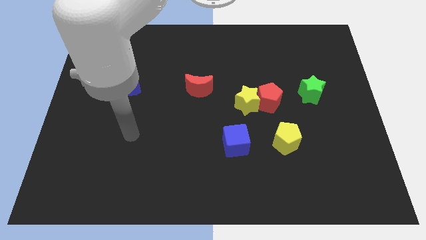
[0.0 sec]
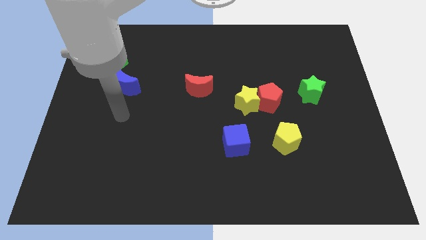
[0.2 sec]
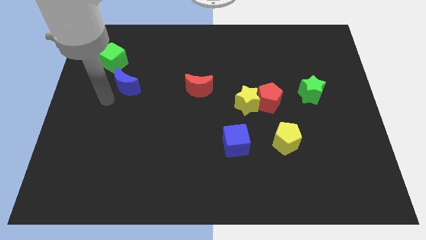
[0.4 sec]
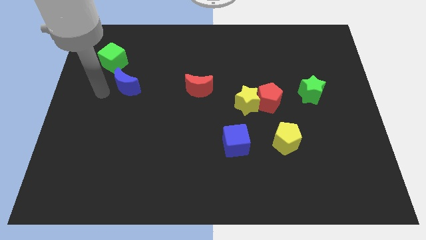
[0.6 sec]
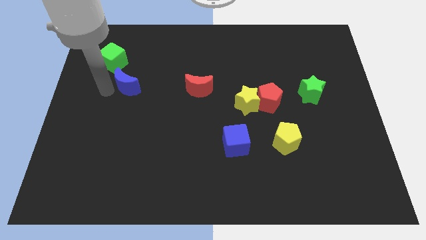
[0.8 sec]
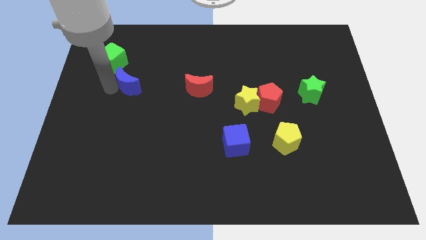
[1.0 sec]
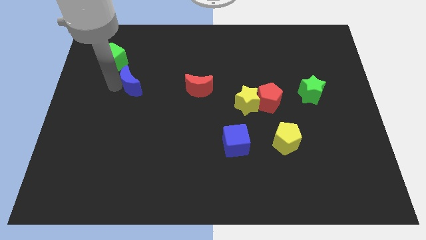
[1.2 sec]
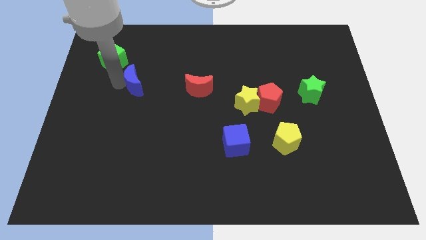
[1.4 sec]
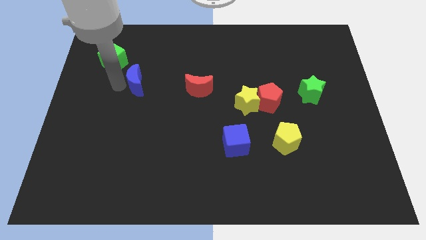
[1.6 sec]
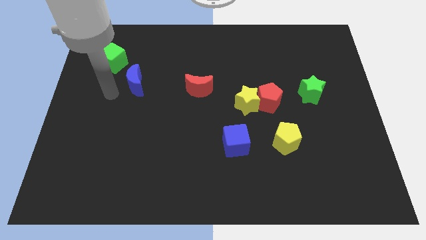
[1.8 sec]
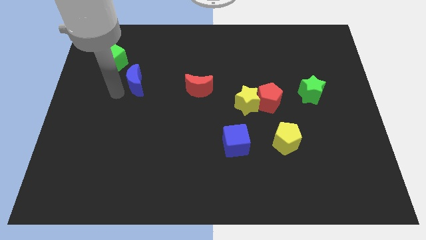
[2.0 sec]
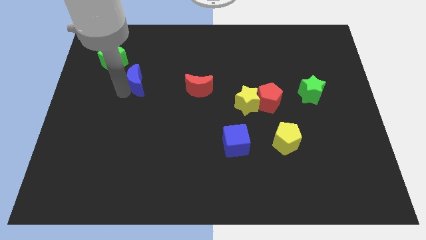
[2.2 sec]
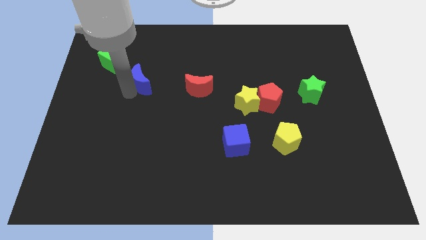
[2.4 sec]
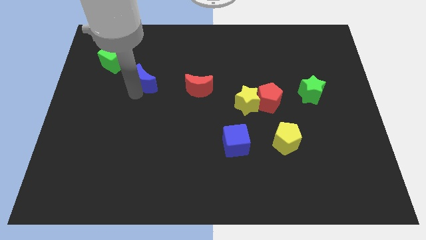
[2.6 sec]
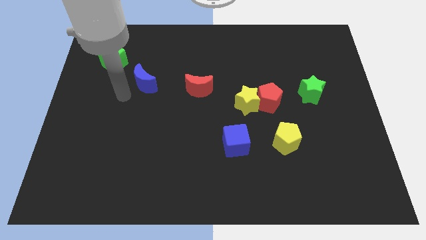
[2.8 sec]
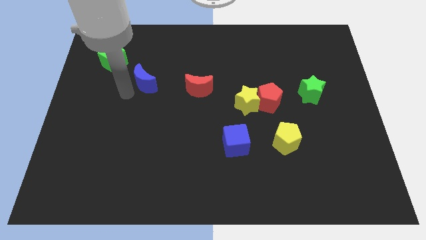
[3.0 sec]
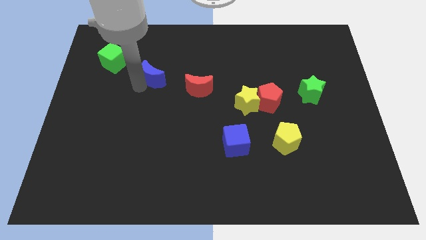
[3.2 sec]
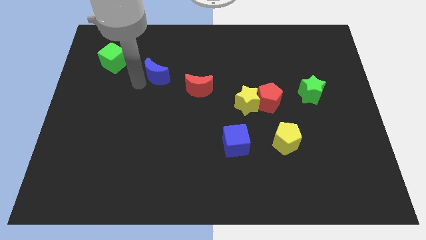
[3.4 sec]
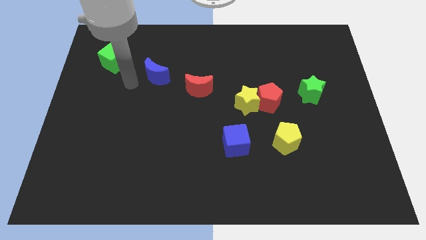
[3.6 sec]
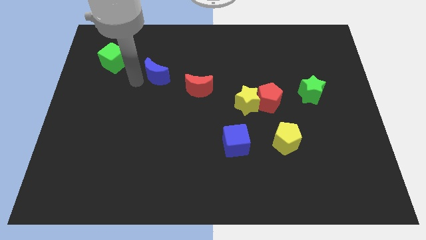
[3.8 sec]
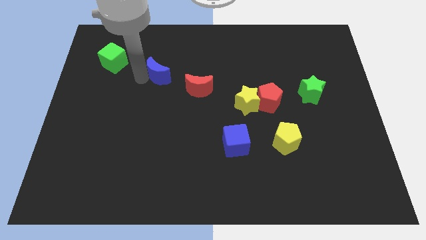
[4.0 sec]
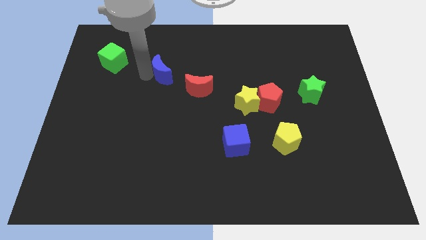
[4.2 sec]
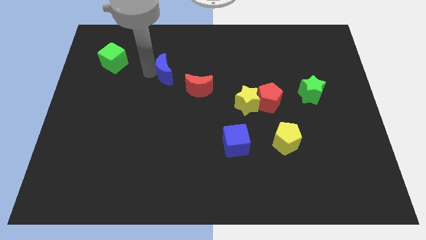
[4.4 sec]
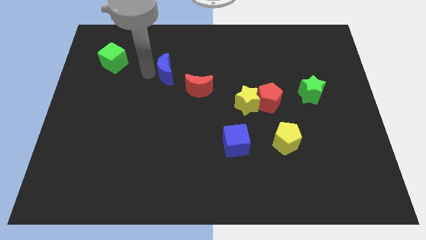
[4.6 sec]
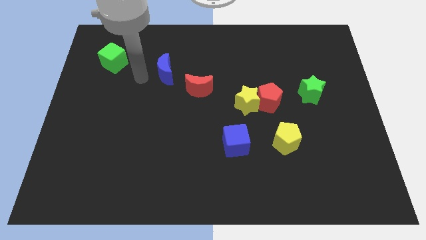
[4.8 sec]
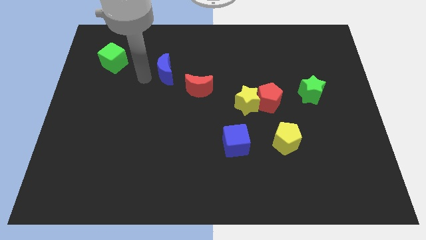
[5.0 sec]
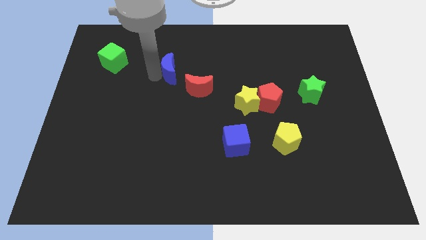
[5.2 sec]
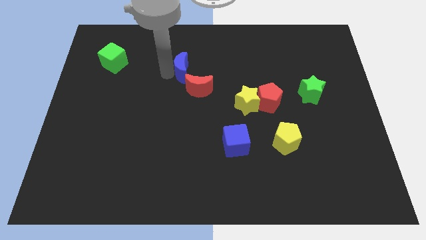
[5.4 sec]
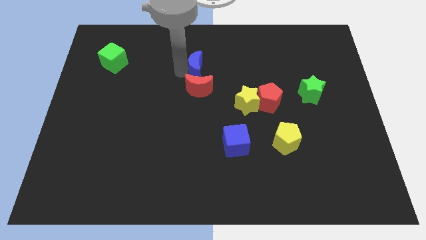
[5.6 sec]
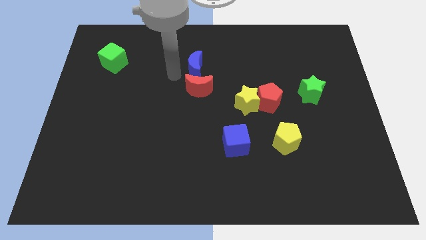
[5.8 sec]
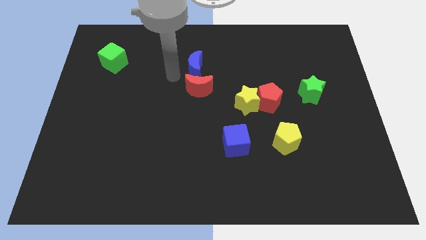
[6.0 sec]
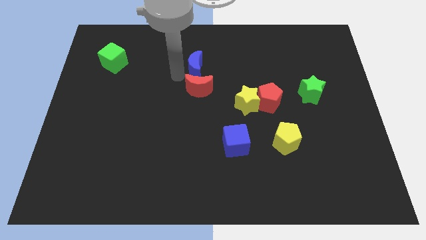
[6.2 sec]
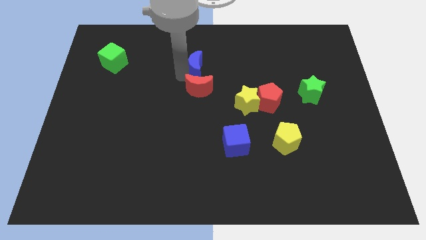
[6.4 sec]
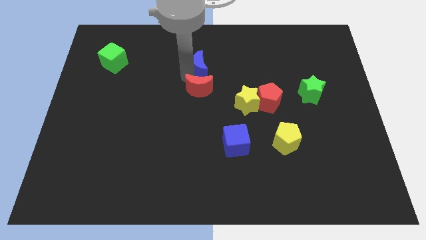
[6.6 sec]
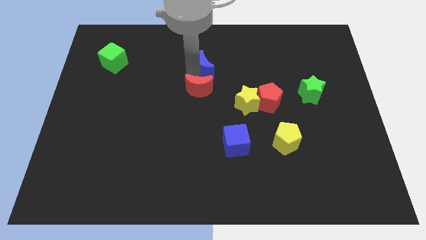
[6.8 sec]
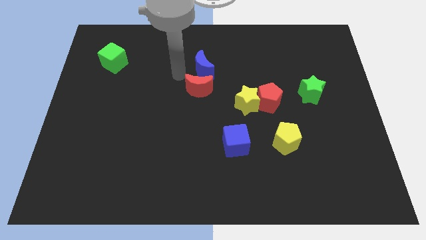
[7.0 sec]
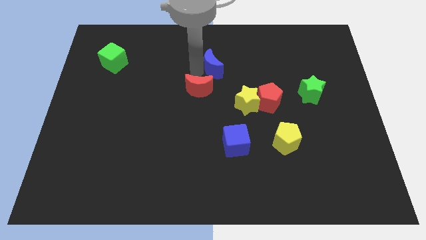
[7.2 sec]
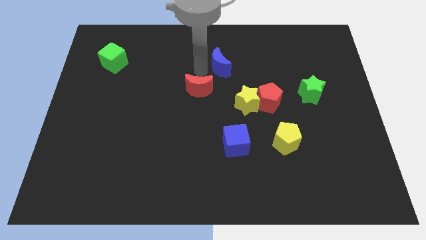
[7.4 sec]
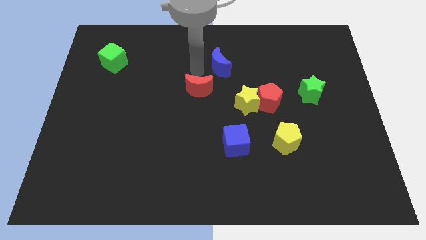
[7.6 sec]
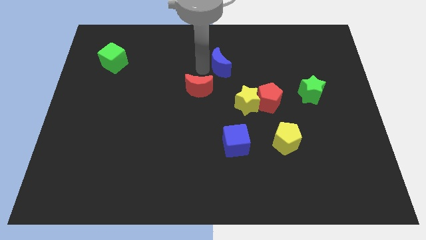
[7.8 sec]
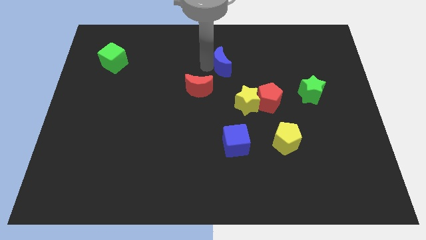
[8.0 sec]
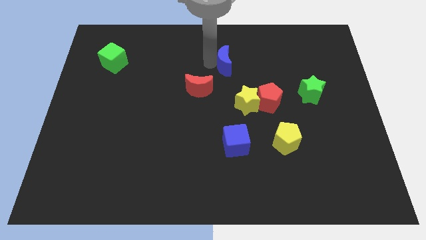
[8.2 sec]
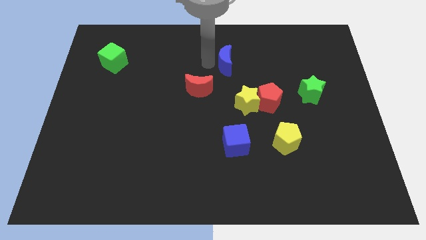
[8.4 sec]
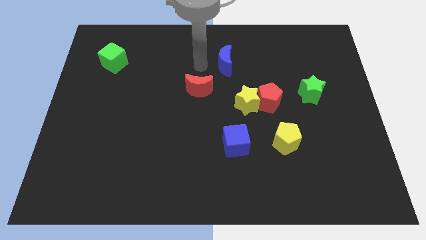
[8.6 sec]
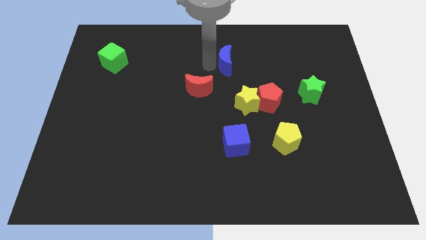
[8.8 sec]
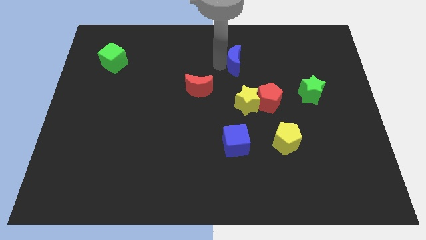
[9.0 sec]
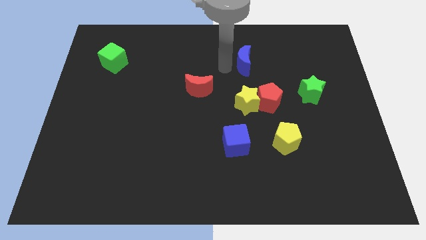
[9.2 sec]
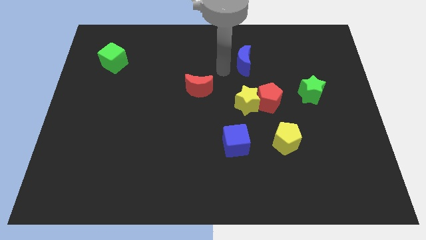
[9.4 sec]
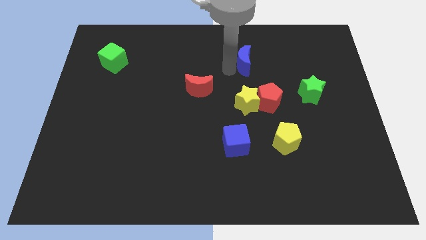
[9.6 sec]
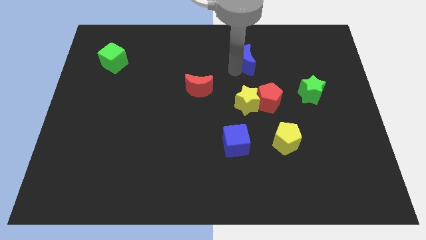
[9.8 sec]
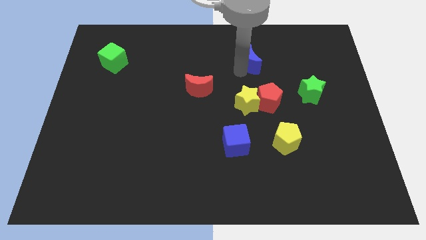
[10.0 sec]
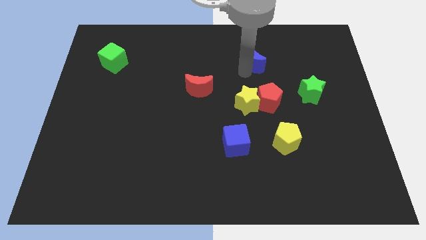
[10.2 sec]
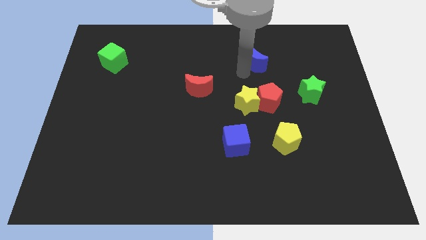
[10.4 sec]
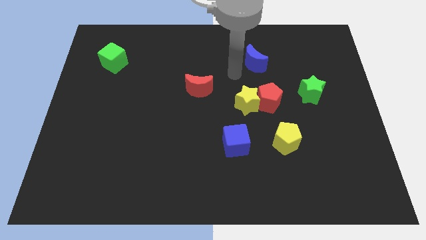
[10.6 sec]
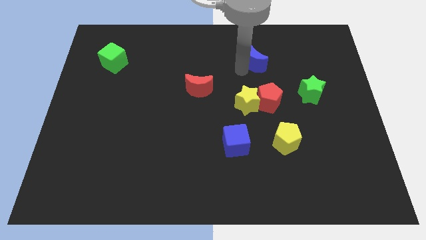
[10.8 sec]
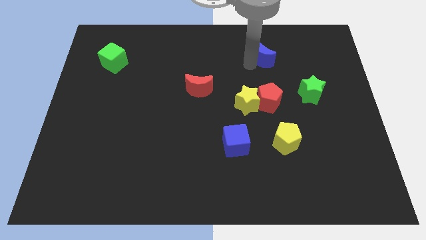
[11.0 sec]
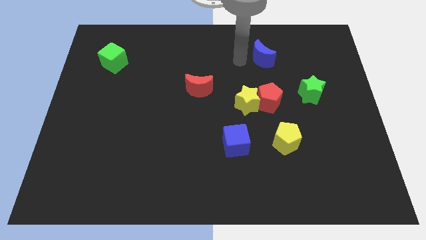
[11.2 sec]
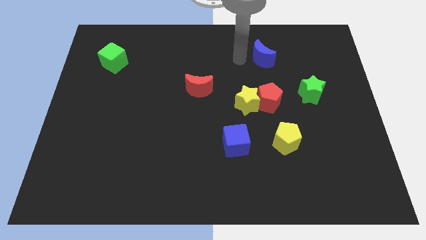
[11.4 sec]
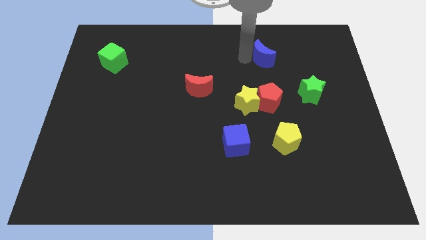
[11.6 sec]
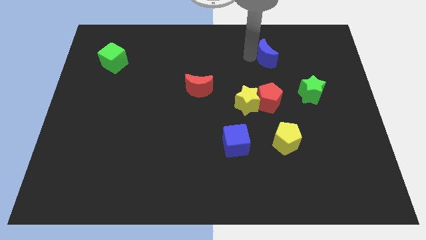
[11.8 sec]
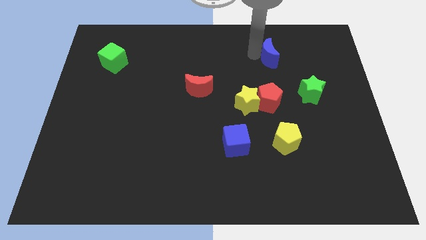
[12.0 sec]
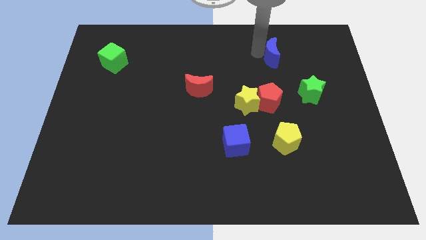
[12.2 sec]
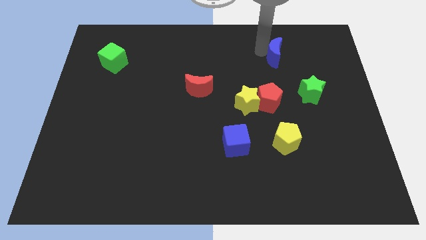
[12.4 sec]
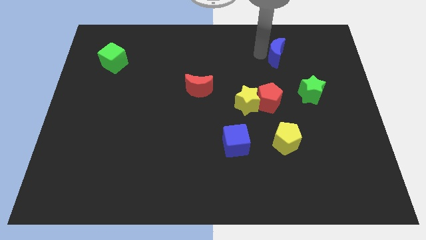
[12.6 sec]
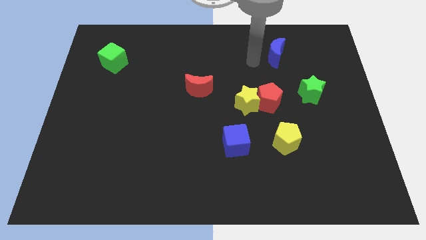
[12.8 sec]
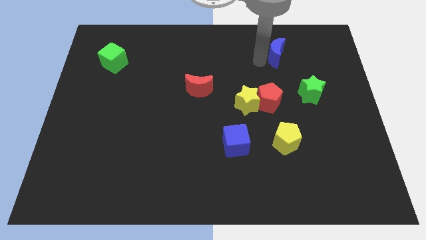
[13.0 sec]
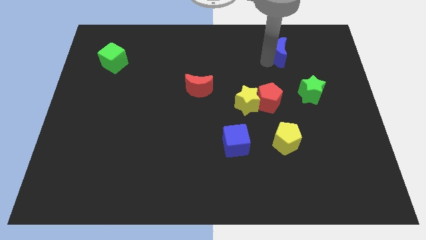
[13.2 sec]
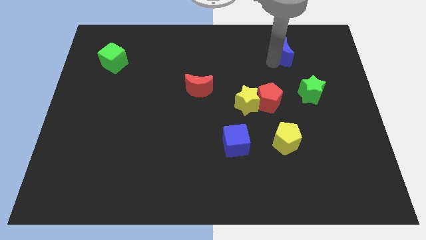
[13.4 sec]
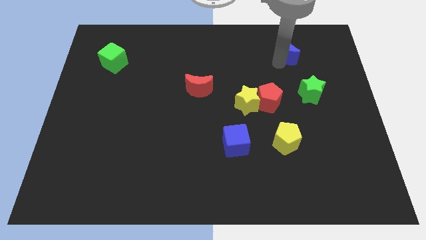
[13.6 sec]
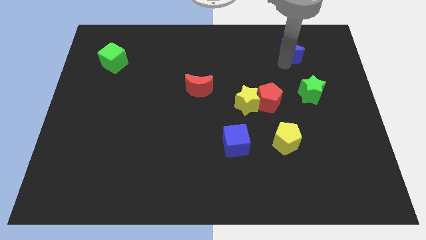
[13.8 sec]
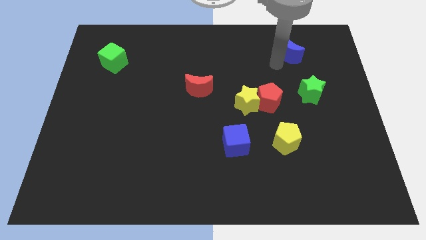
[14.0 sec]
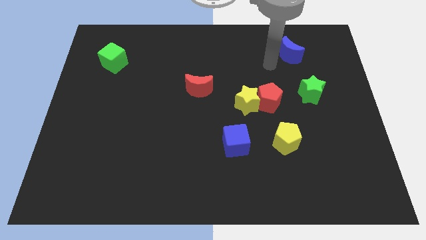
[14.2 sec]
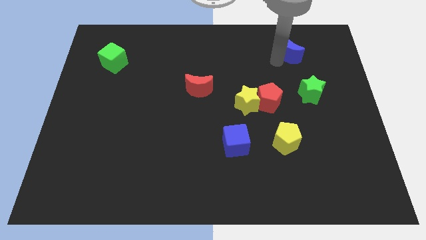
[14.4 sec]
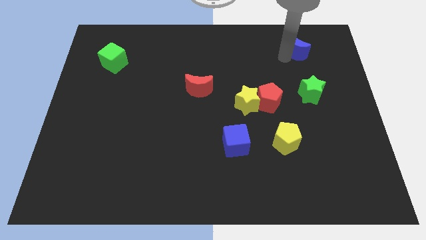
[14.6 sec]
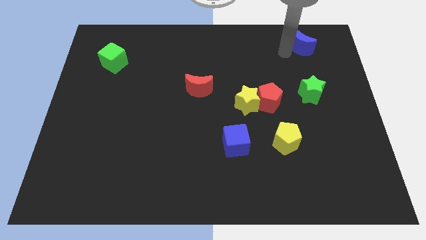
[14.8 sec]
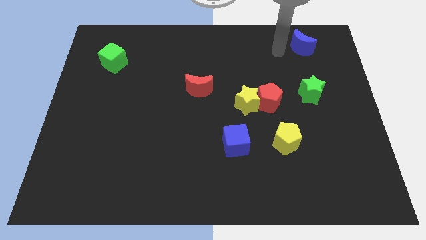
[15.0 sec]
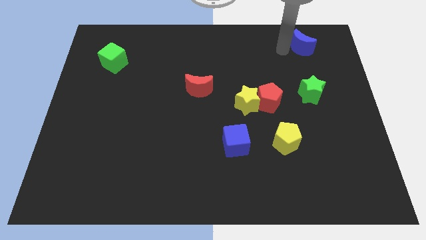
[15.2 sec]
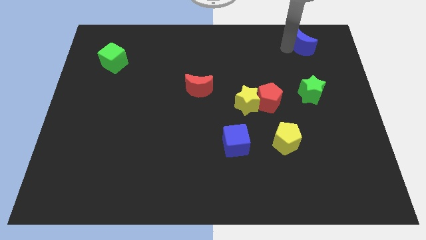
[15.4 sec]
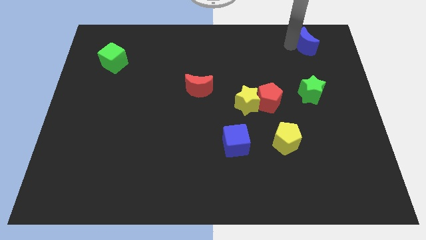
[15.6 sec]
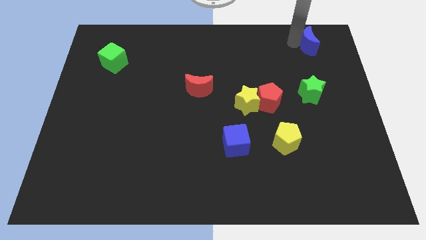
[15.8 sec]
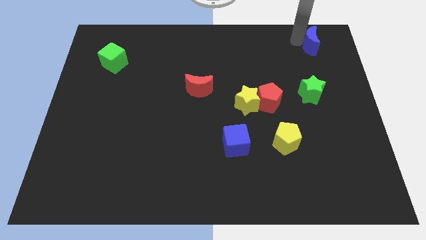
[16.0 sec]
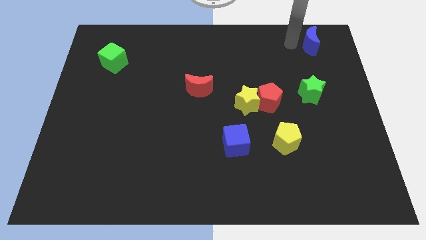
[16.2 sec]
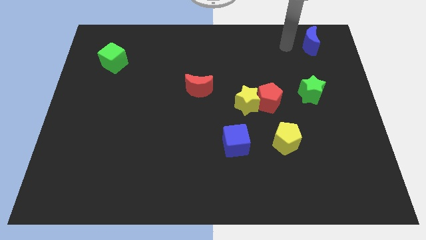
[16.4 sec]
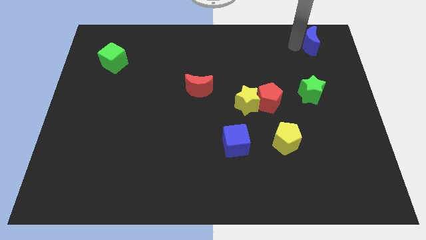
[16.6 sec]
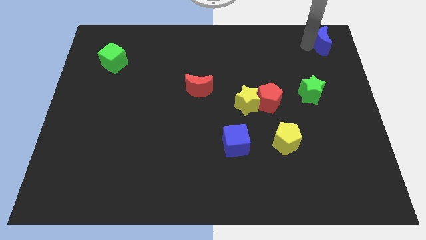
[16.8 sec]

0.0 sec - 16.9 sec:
move the blue moon to the top right corner
